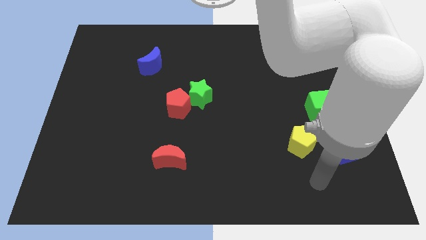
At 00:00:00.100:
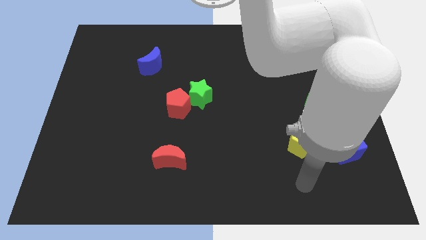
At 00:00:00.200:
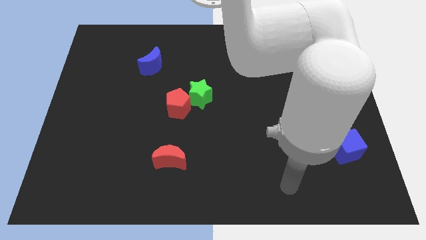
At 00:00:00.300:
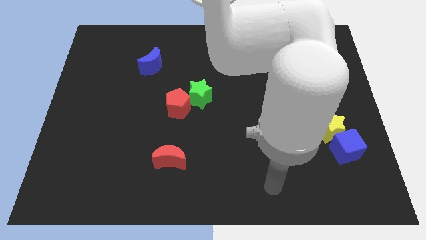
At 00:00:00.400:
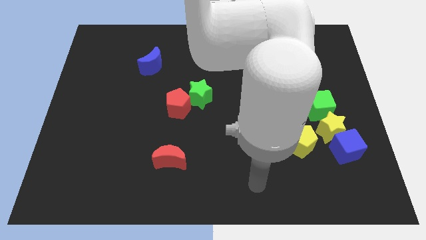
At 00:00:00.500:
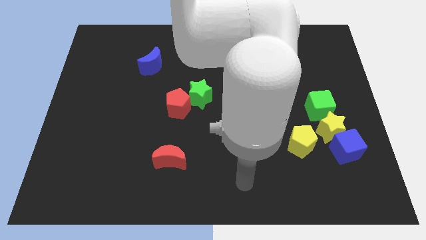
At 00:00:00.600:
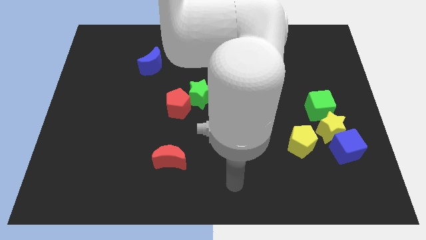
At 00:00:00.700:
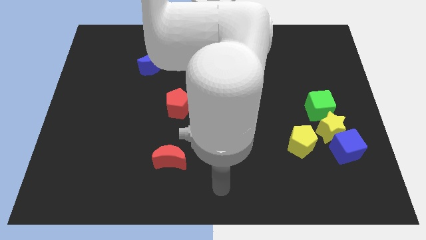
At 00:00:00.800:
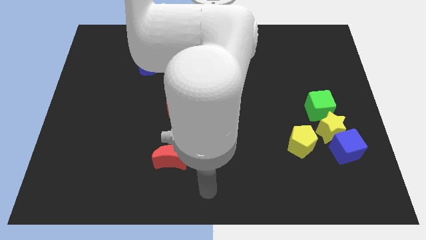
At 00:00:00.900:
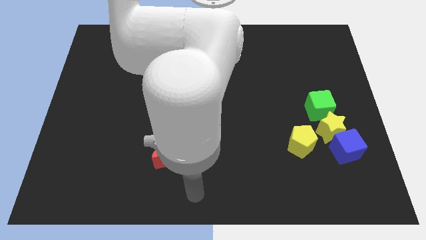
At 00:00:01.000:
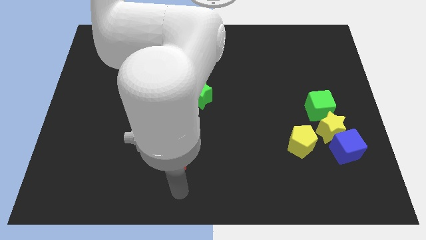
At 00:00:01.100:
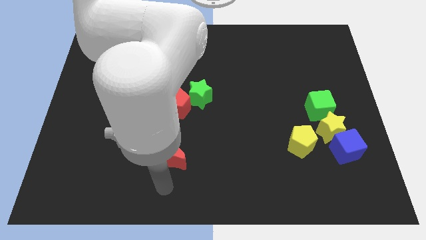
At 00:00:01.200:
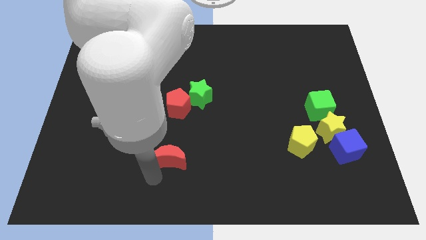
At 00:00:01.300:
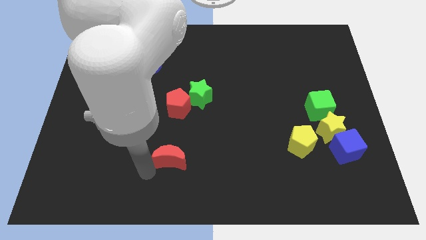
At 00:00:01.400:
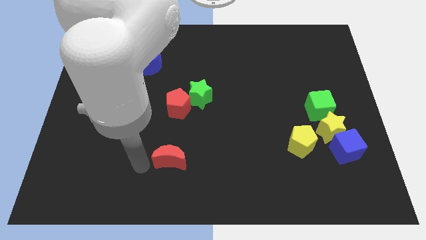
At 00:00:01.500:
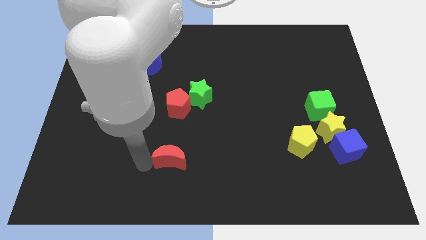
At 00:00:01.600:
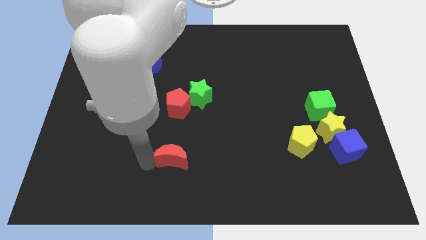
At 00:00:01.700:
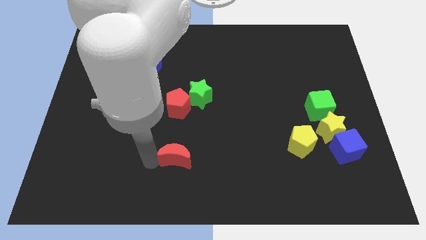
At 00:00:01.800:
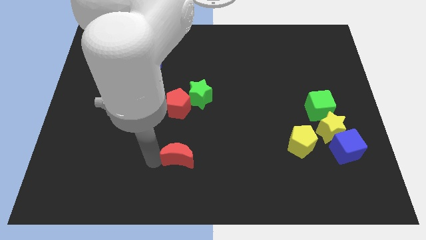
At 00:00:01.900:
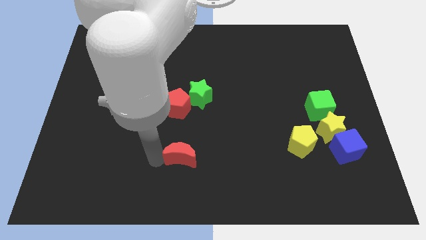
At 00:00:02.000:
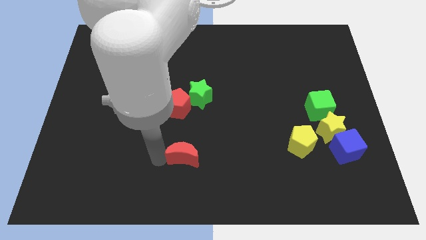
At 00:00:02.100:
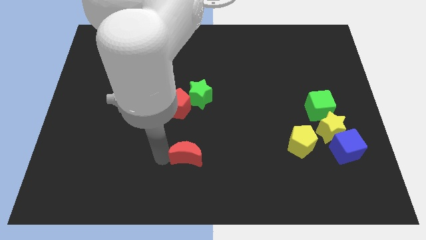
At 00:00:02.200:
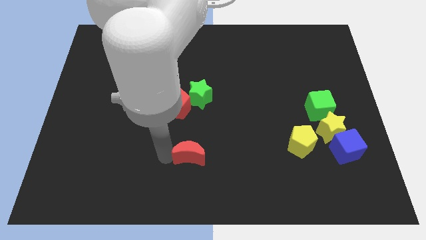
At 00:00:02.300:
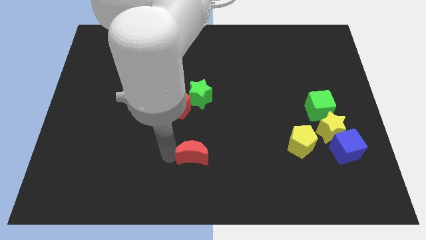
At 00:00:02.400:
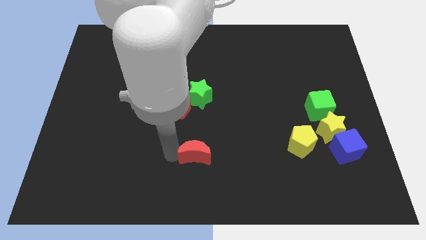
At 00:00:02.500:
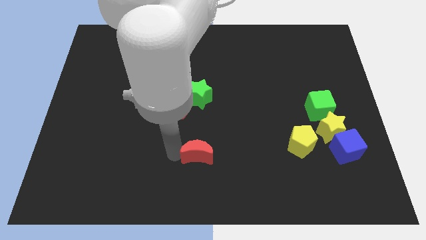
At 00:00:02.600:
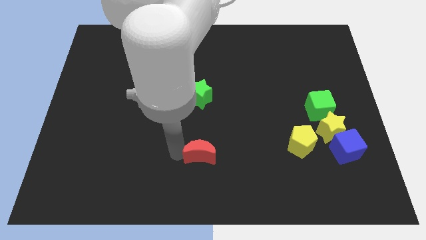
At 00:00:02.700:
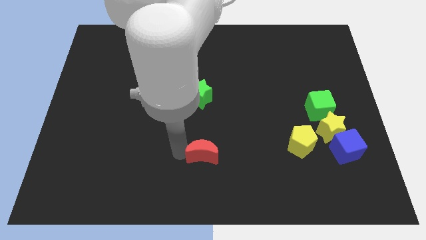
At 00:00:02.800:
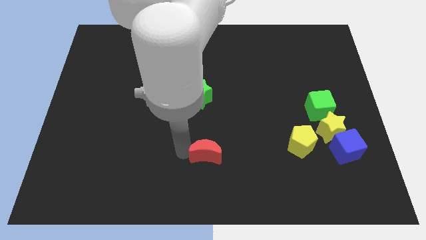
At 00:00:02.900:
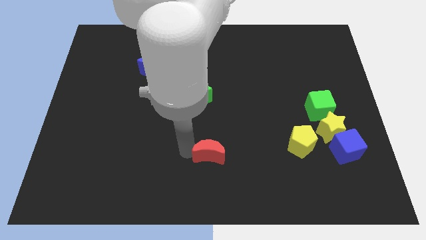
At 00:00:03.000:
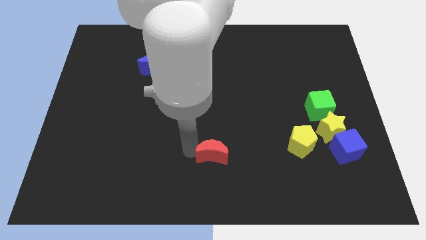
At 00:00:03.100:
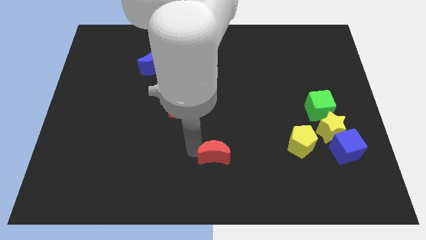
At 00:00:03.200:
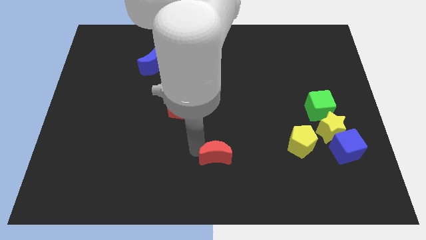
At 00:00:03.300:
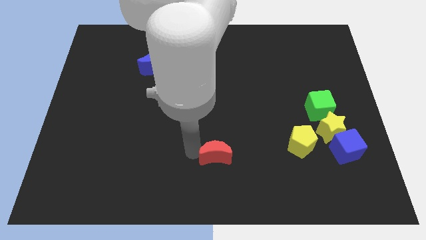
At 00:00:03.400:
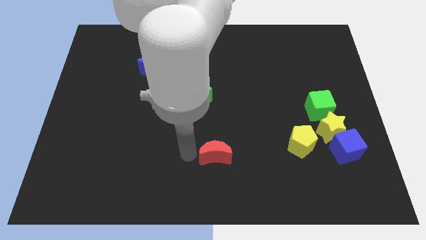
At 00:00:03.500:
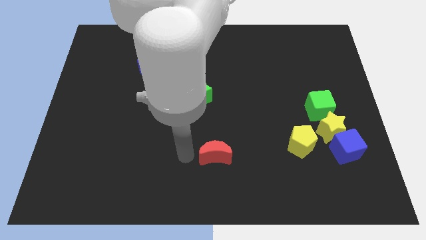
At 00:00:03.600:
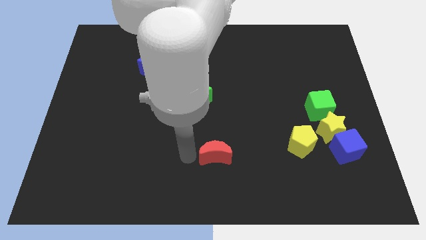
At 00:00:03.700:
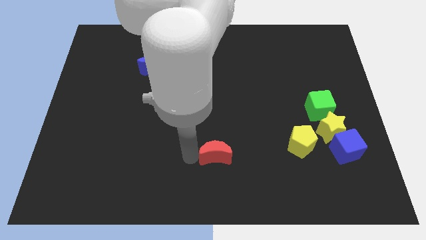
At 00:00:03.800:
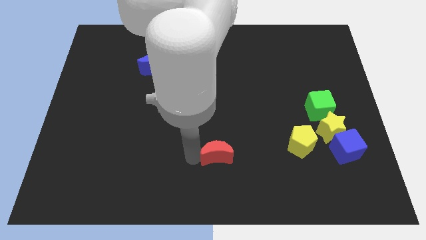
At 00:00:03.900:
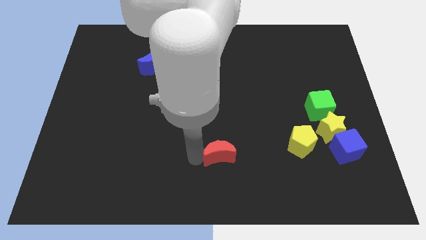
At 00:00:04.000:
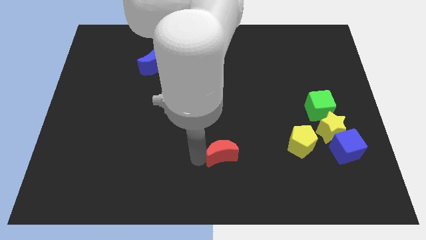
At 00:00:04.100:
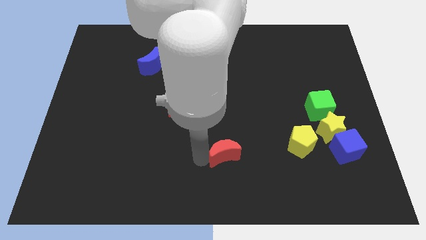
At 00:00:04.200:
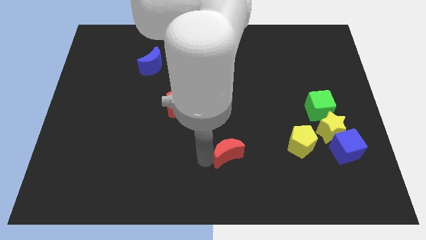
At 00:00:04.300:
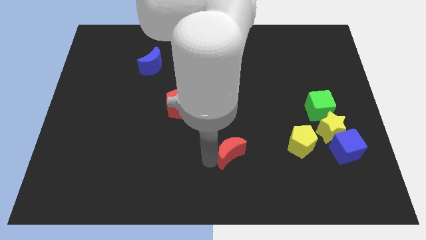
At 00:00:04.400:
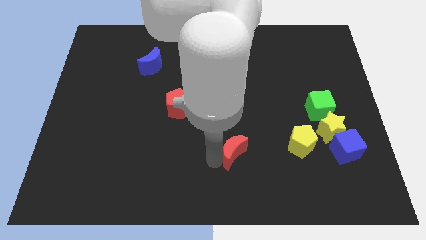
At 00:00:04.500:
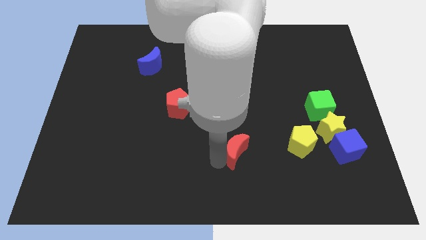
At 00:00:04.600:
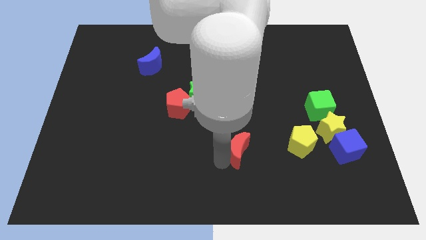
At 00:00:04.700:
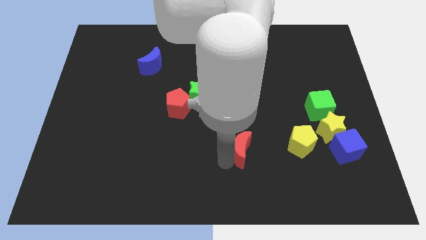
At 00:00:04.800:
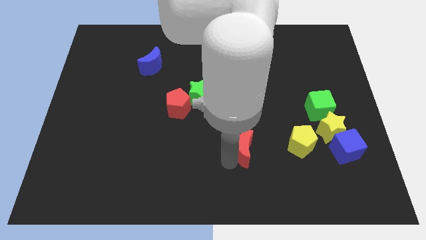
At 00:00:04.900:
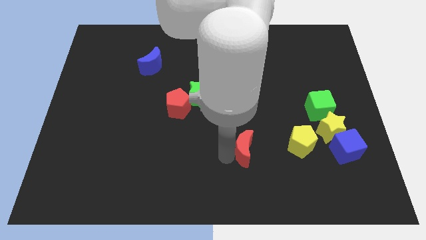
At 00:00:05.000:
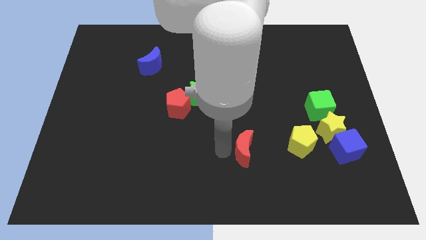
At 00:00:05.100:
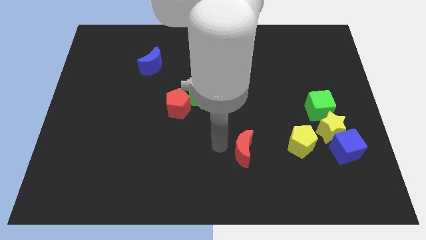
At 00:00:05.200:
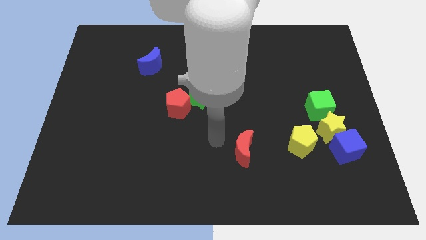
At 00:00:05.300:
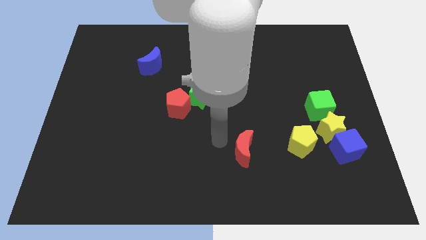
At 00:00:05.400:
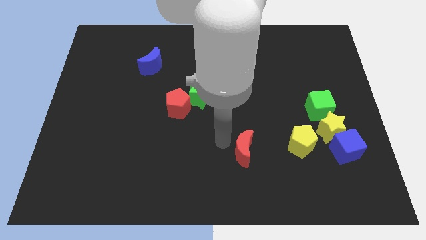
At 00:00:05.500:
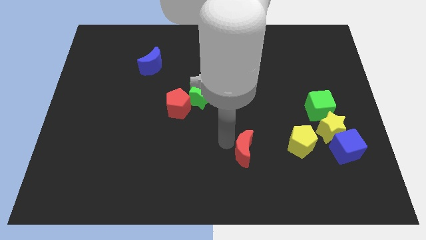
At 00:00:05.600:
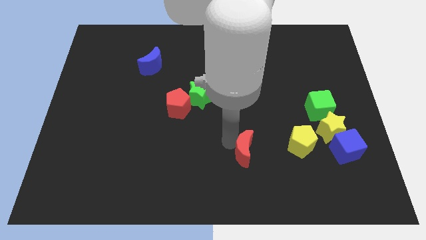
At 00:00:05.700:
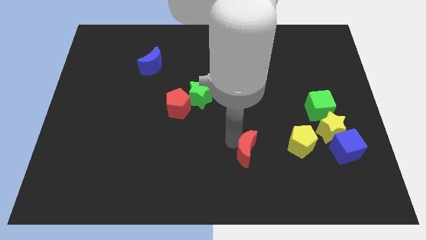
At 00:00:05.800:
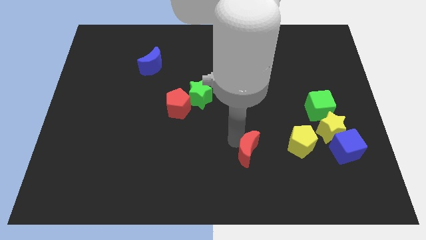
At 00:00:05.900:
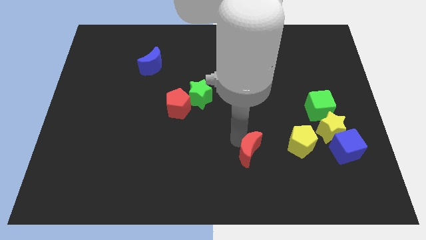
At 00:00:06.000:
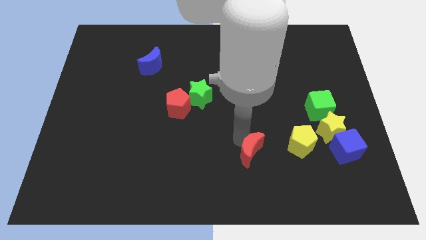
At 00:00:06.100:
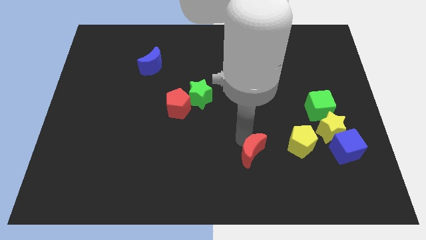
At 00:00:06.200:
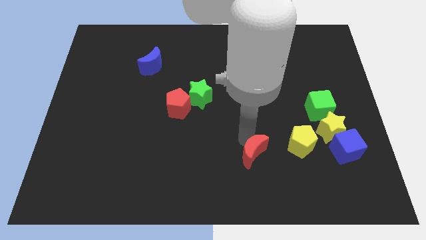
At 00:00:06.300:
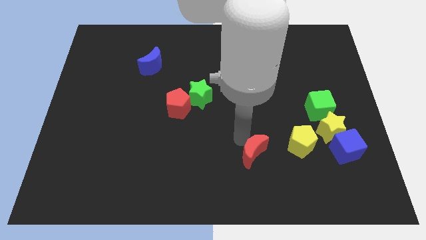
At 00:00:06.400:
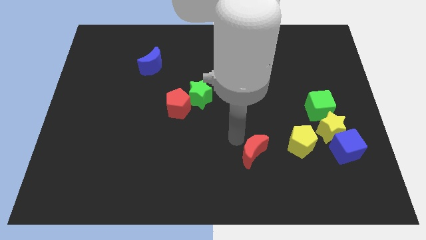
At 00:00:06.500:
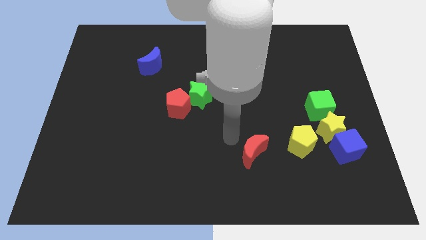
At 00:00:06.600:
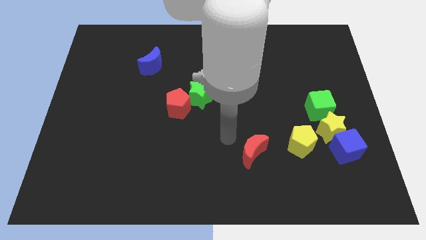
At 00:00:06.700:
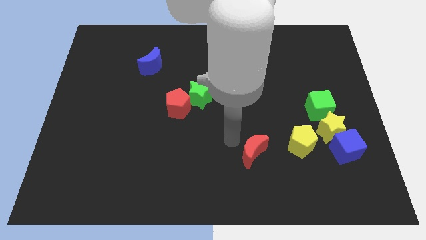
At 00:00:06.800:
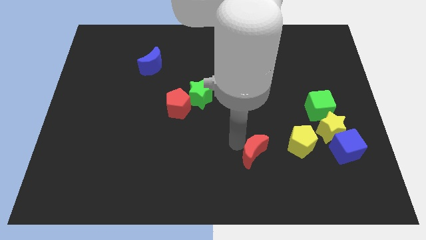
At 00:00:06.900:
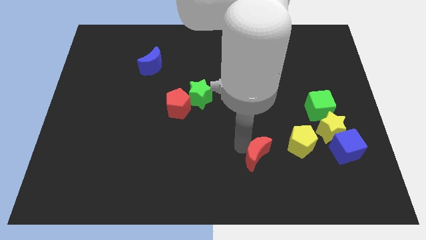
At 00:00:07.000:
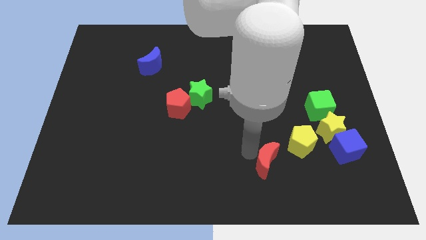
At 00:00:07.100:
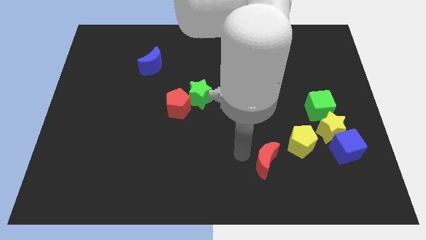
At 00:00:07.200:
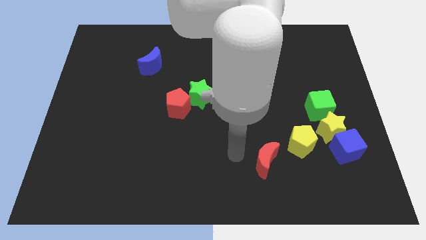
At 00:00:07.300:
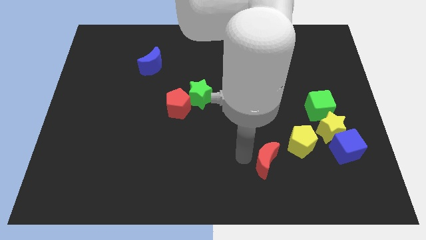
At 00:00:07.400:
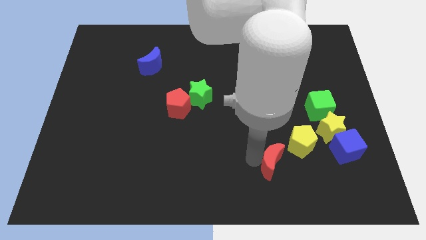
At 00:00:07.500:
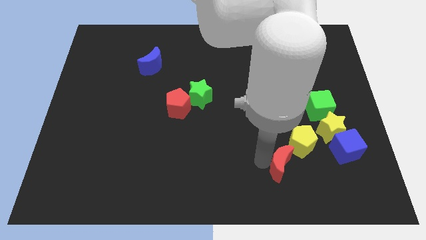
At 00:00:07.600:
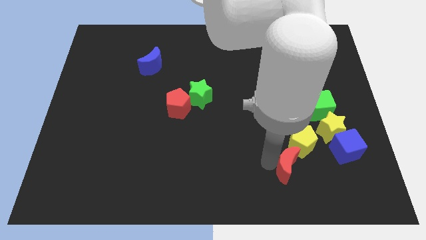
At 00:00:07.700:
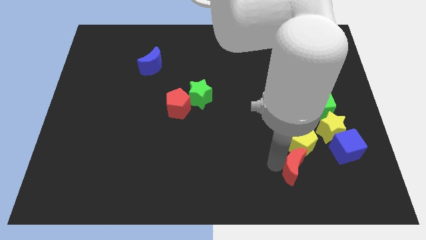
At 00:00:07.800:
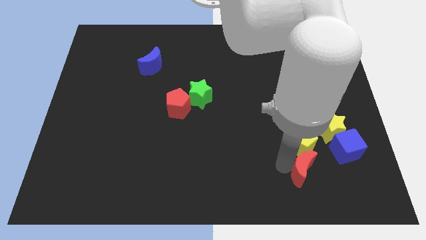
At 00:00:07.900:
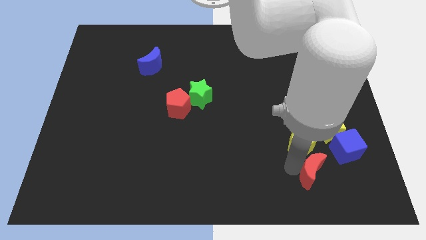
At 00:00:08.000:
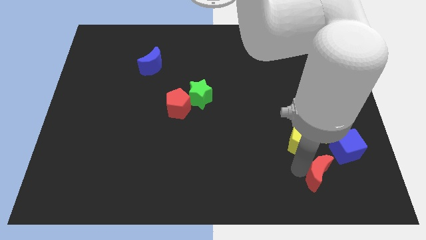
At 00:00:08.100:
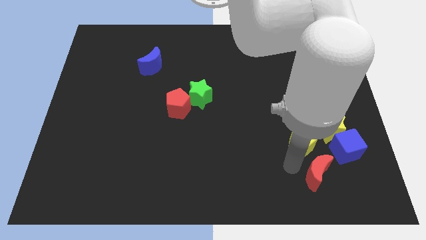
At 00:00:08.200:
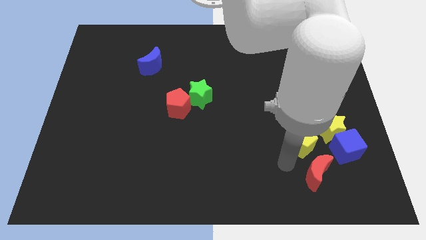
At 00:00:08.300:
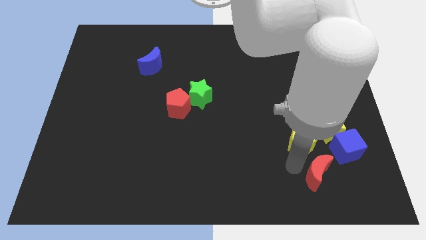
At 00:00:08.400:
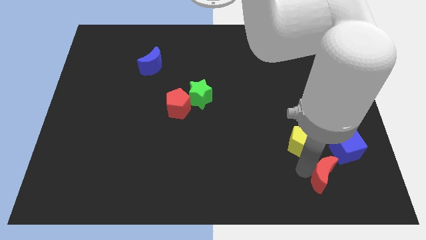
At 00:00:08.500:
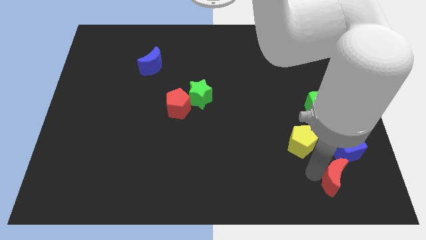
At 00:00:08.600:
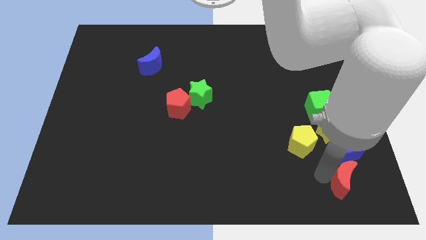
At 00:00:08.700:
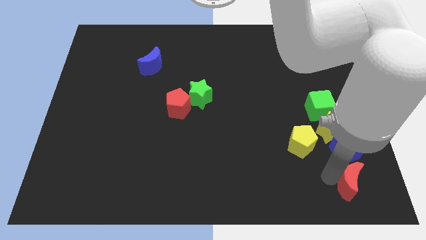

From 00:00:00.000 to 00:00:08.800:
move the red moon to the bottom right of the board
